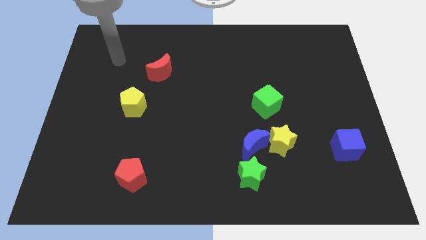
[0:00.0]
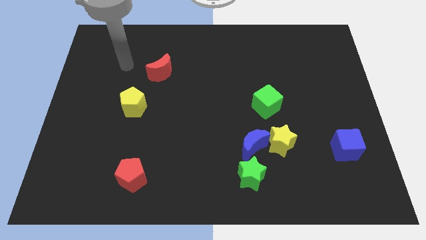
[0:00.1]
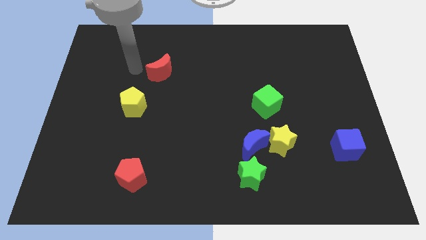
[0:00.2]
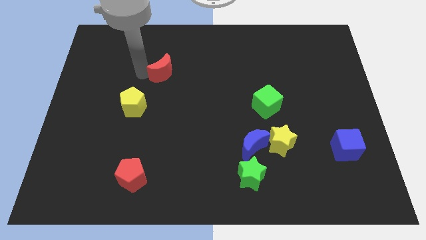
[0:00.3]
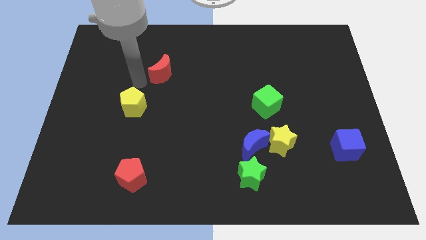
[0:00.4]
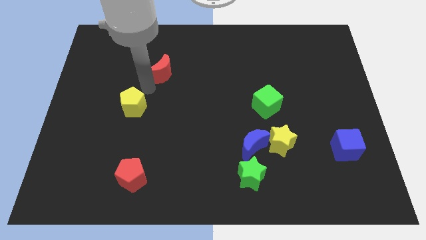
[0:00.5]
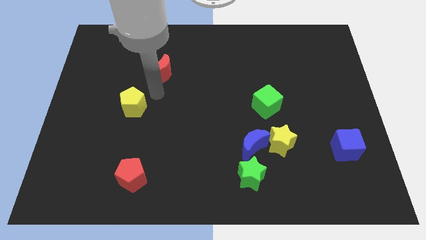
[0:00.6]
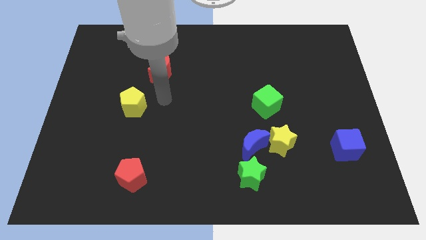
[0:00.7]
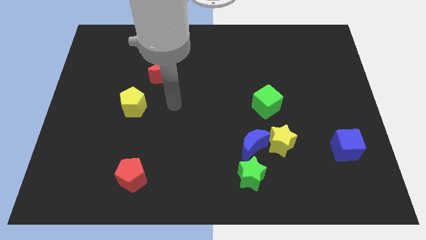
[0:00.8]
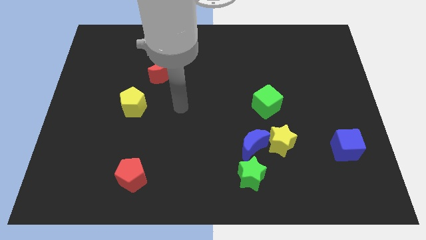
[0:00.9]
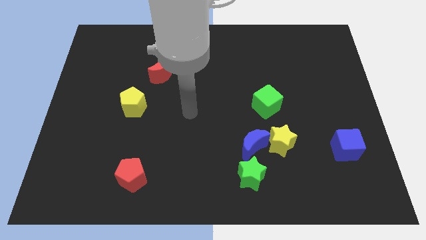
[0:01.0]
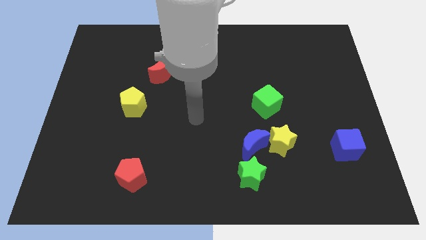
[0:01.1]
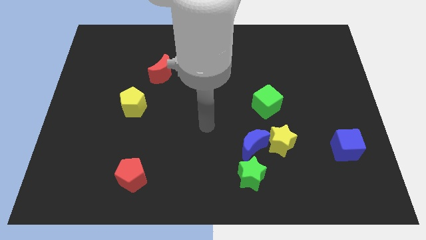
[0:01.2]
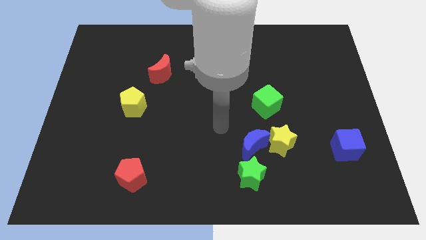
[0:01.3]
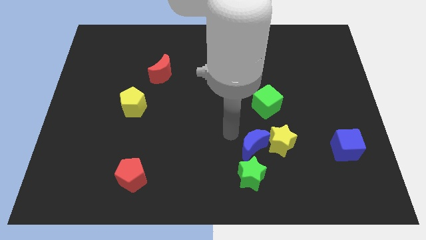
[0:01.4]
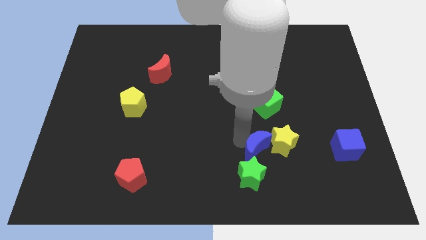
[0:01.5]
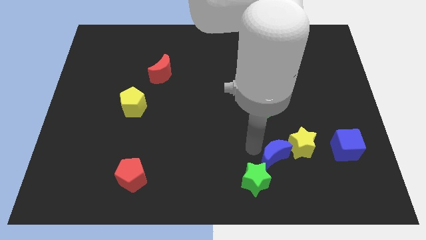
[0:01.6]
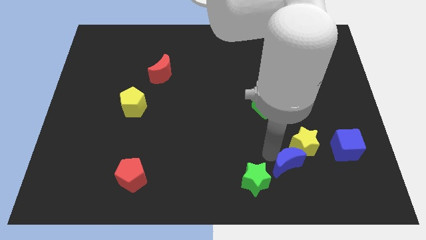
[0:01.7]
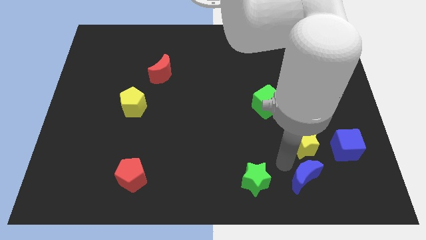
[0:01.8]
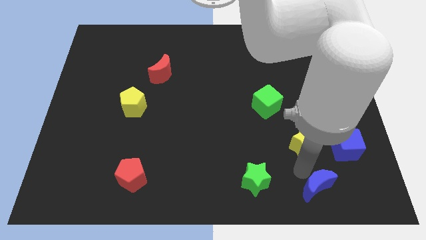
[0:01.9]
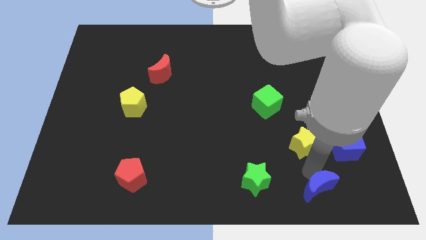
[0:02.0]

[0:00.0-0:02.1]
separate the yellow star from the blue moon

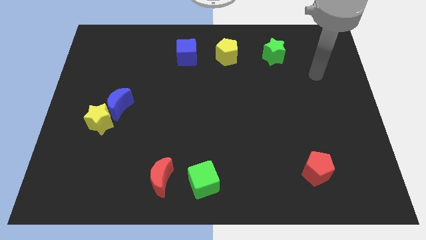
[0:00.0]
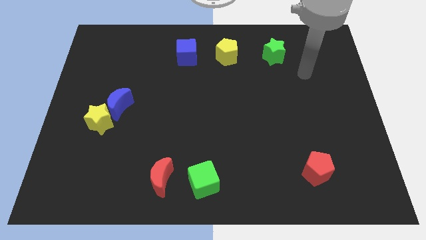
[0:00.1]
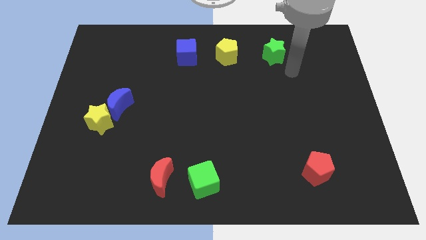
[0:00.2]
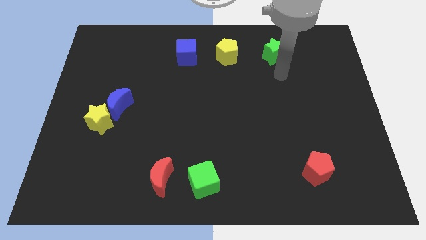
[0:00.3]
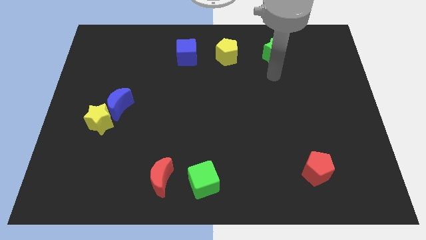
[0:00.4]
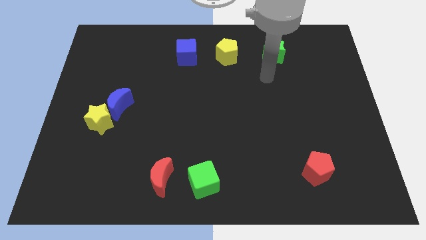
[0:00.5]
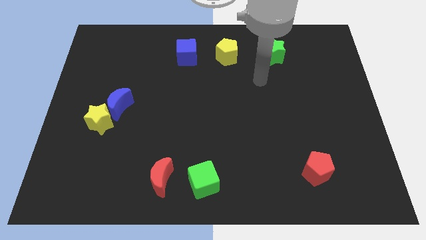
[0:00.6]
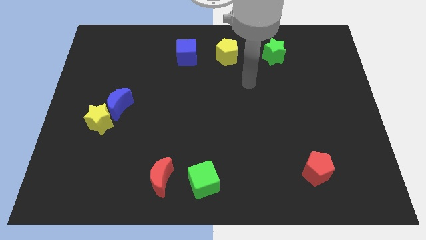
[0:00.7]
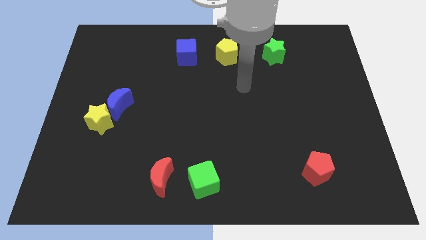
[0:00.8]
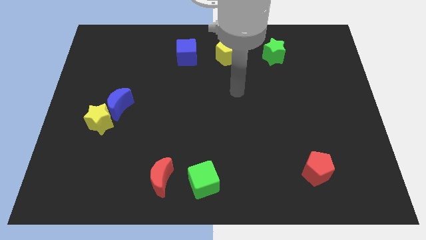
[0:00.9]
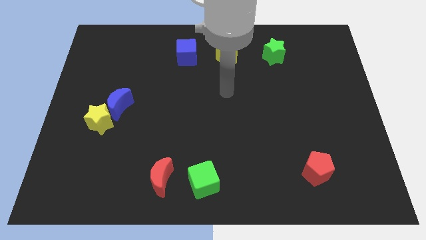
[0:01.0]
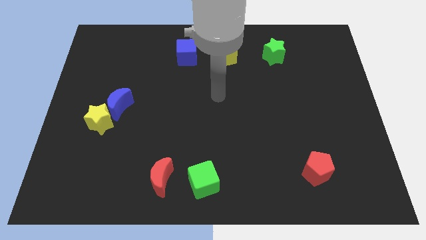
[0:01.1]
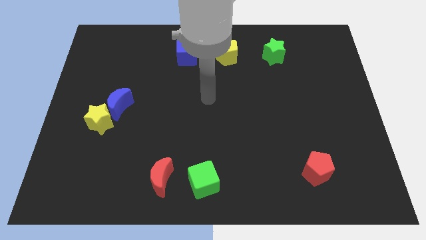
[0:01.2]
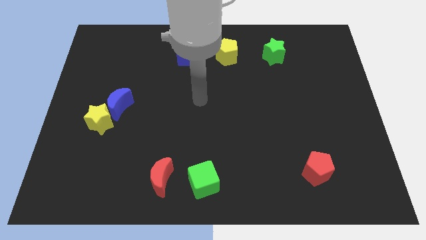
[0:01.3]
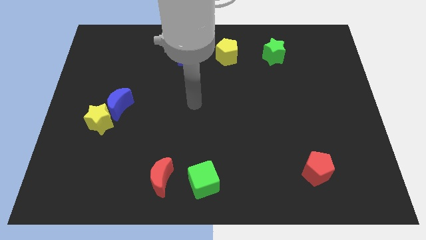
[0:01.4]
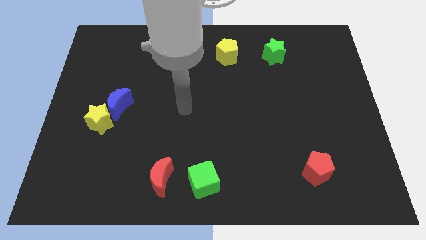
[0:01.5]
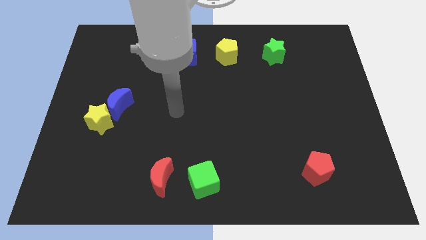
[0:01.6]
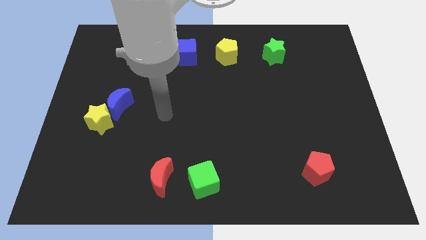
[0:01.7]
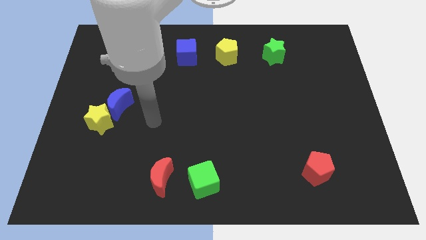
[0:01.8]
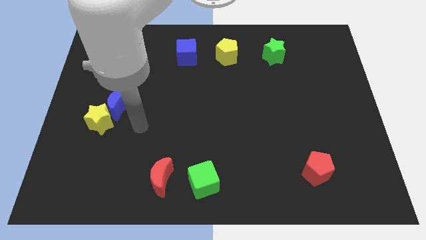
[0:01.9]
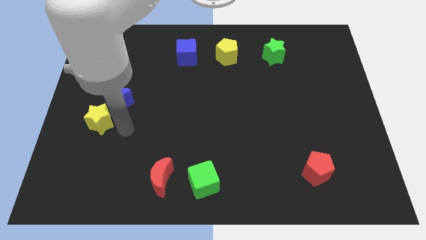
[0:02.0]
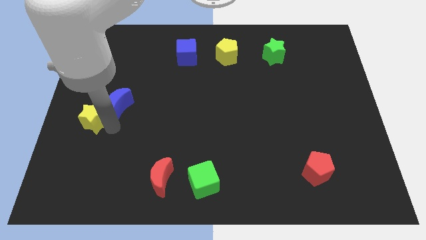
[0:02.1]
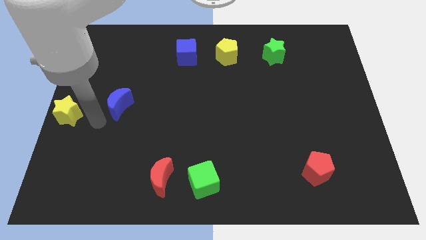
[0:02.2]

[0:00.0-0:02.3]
move the blue moon away from the yellow star

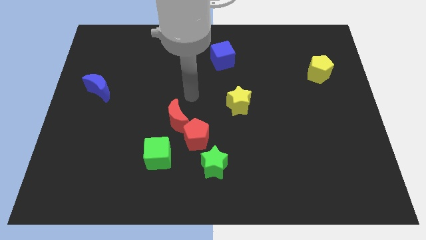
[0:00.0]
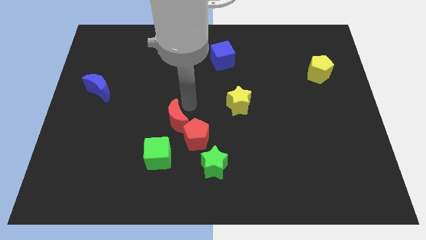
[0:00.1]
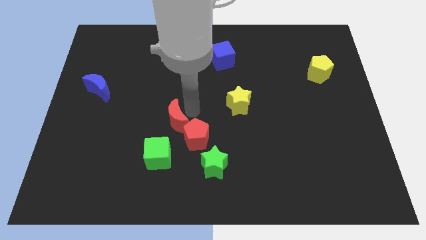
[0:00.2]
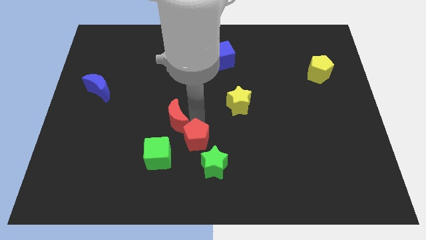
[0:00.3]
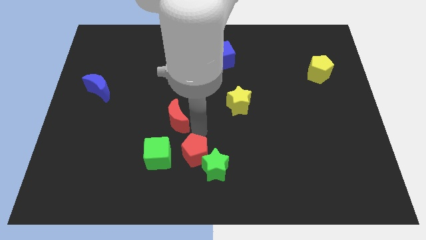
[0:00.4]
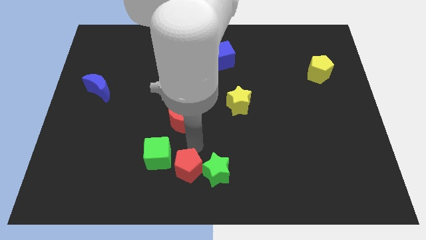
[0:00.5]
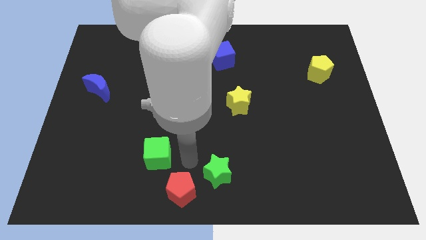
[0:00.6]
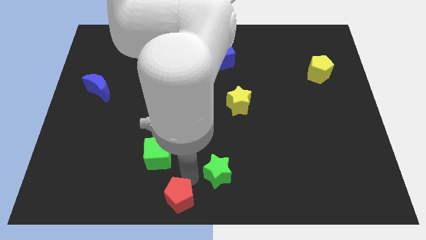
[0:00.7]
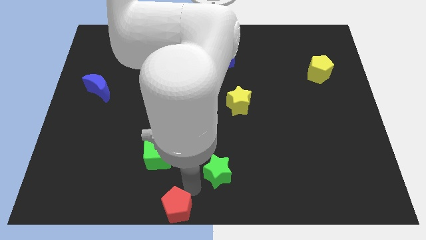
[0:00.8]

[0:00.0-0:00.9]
move the green star away from the red pentagon

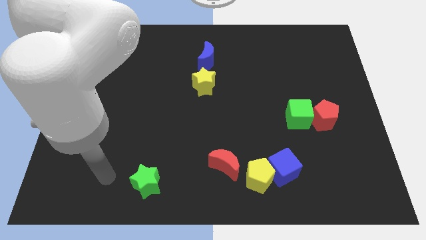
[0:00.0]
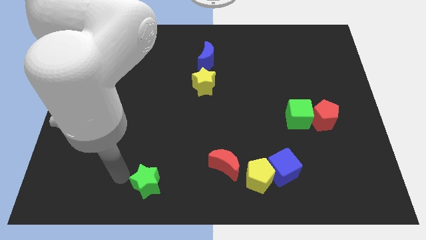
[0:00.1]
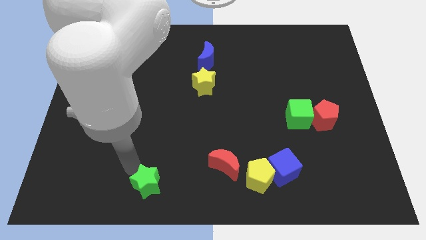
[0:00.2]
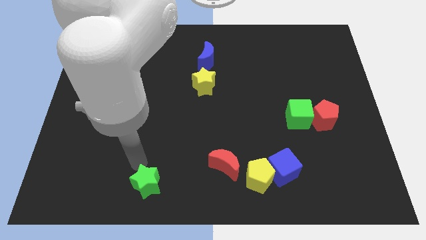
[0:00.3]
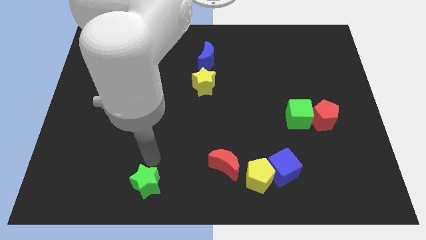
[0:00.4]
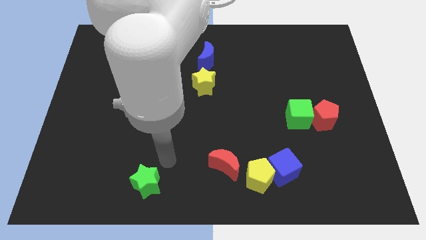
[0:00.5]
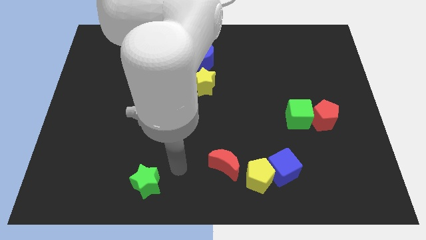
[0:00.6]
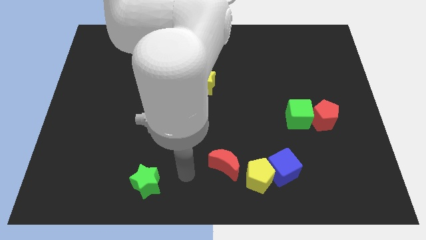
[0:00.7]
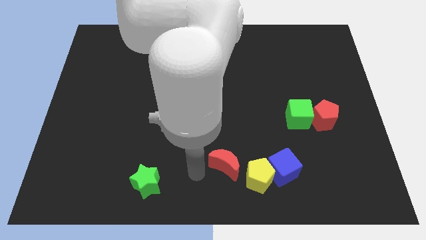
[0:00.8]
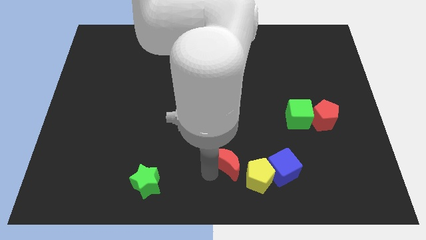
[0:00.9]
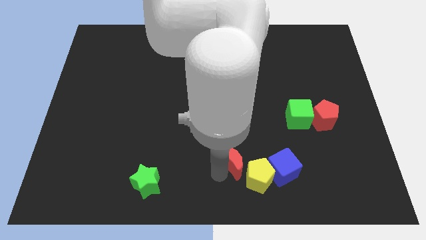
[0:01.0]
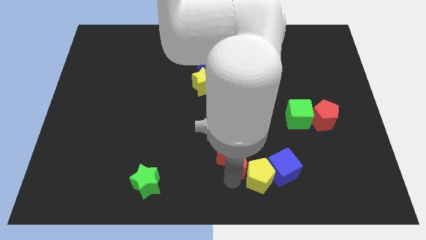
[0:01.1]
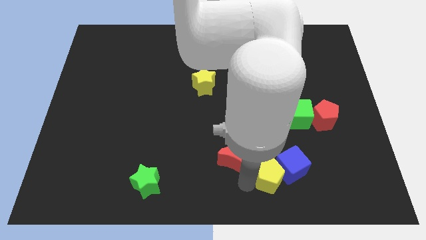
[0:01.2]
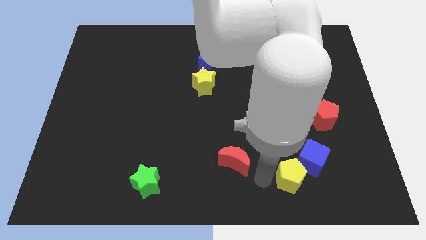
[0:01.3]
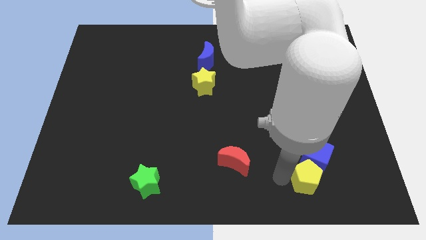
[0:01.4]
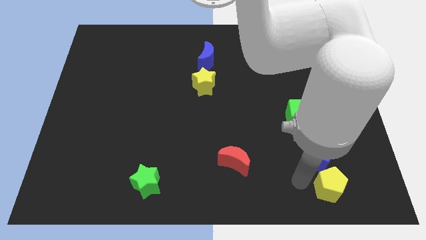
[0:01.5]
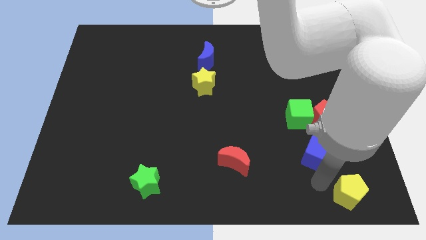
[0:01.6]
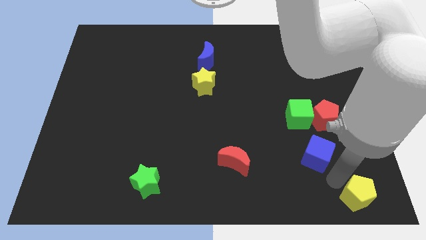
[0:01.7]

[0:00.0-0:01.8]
separate the blue cube from the yellow pentagon

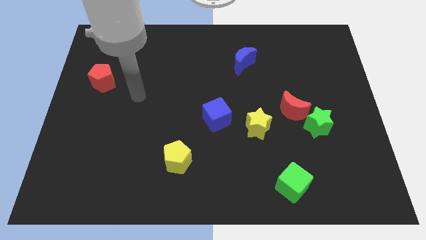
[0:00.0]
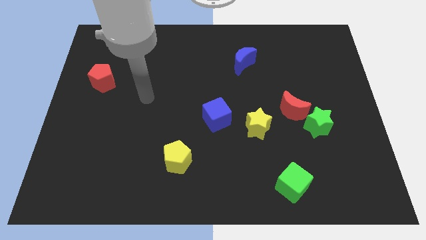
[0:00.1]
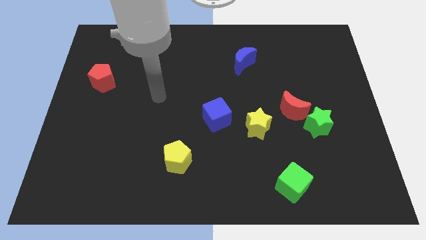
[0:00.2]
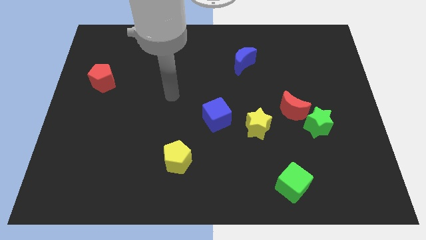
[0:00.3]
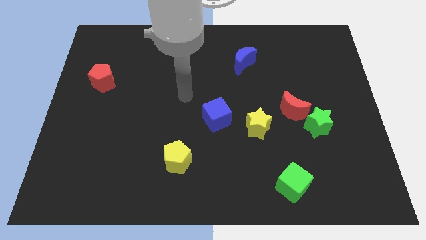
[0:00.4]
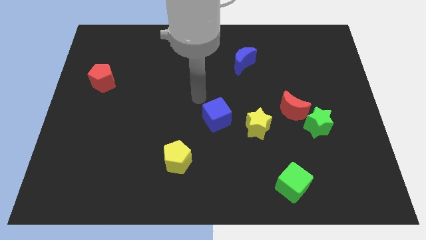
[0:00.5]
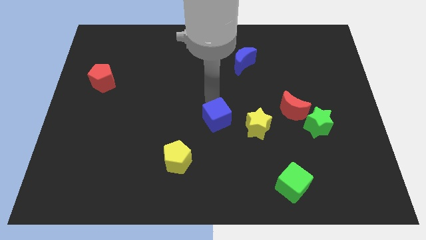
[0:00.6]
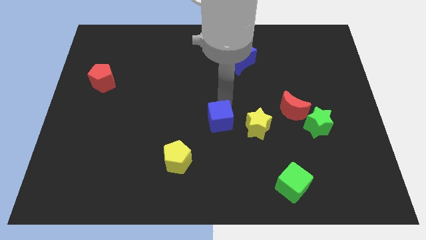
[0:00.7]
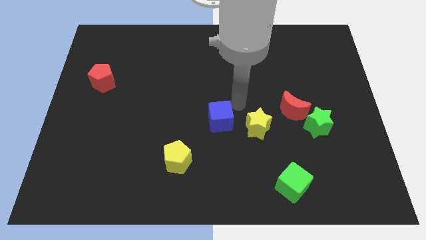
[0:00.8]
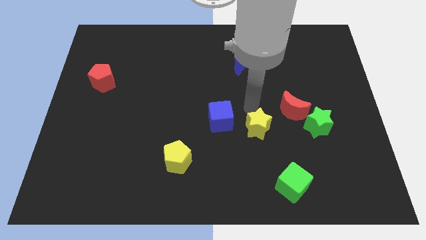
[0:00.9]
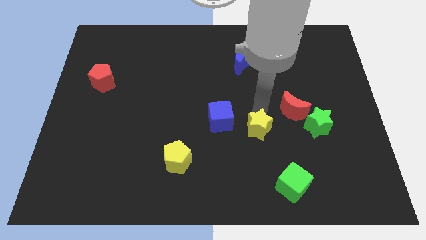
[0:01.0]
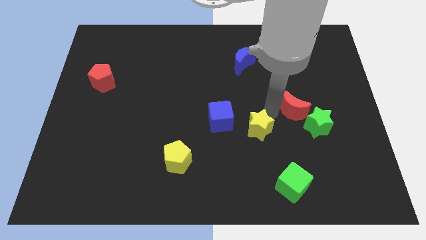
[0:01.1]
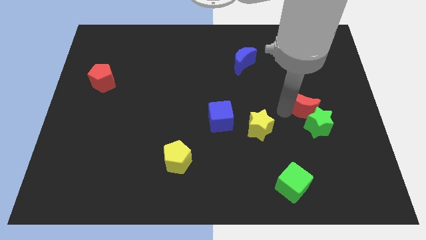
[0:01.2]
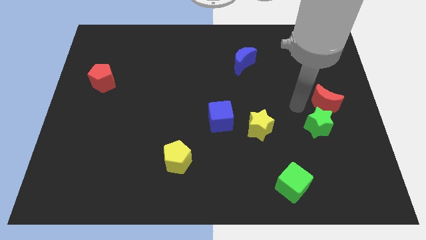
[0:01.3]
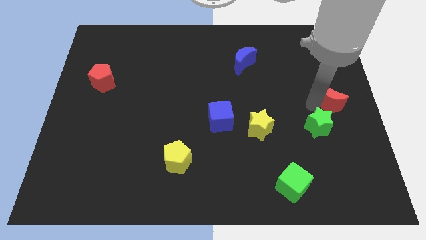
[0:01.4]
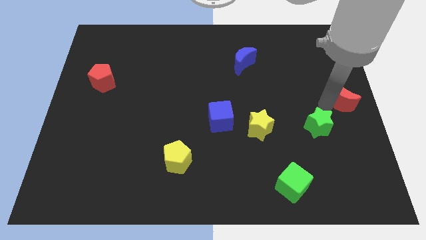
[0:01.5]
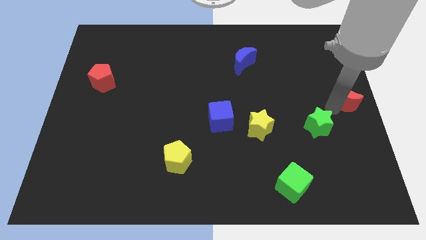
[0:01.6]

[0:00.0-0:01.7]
move the green star away from the red moon

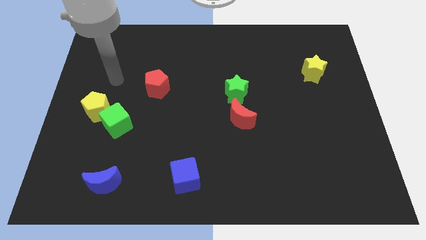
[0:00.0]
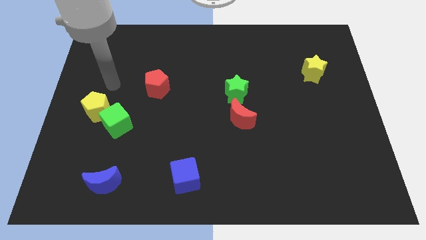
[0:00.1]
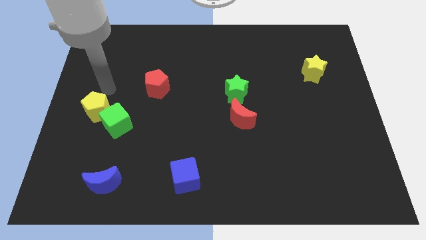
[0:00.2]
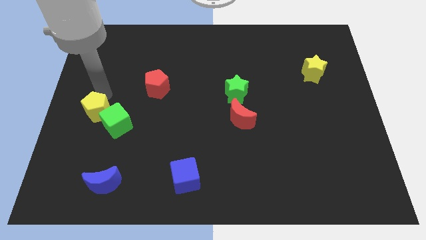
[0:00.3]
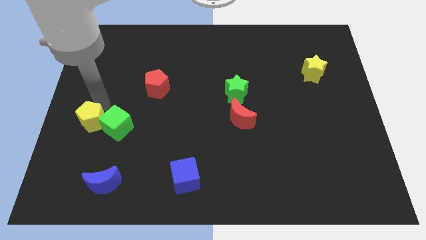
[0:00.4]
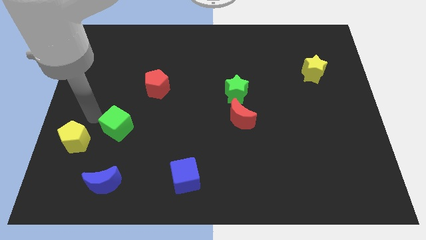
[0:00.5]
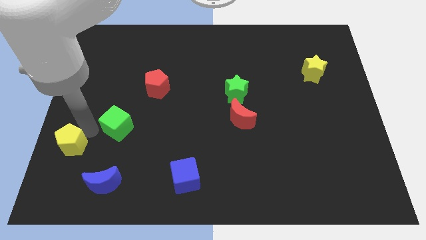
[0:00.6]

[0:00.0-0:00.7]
separate the green cube from the yellow pentagon
